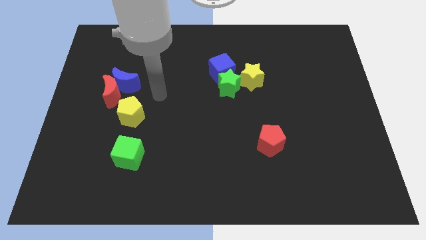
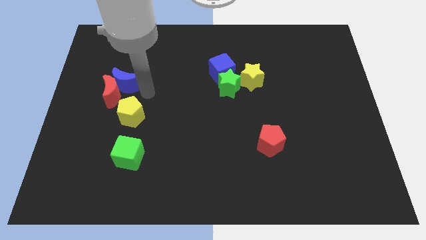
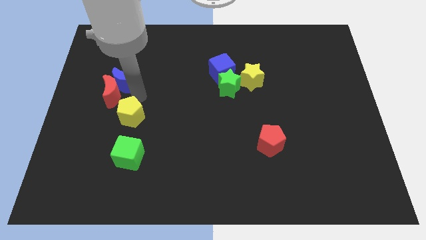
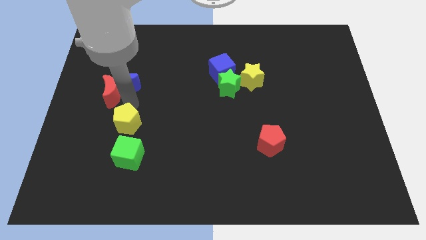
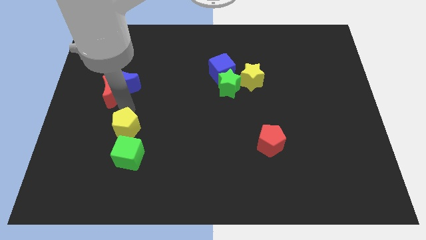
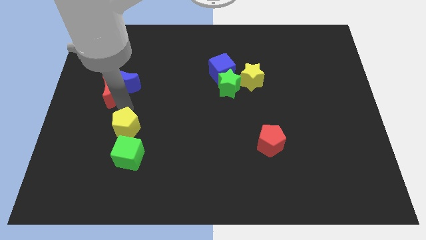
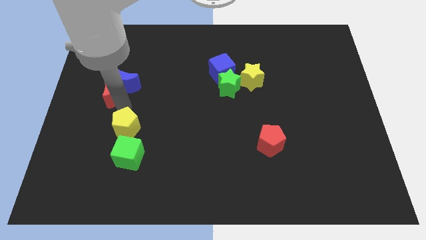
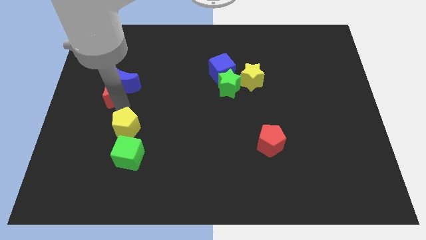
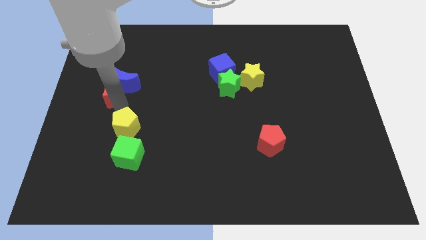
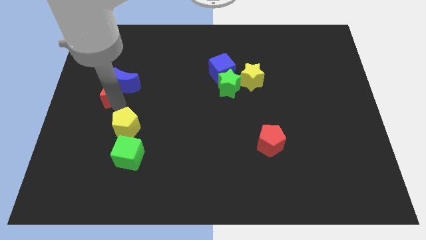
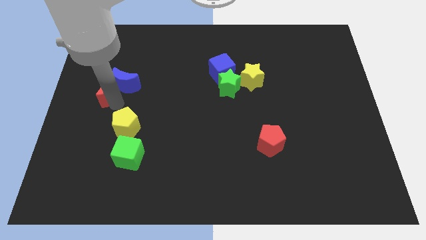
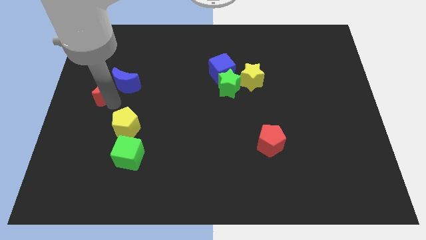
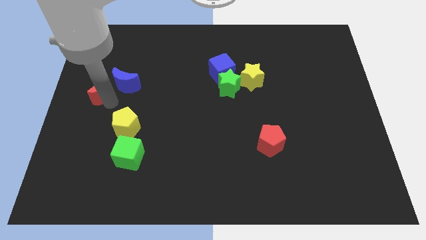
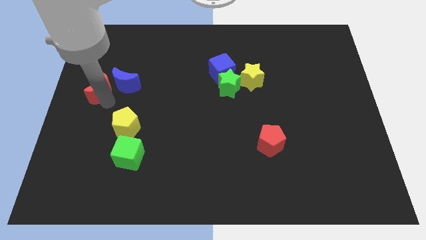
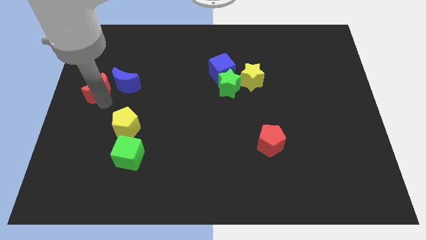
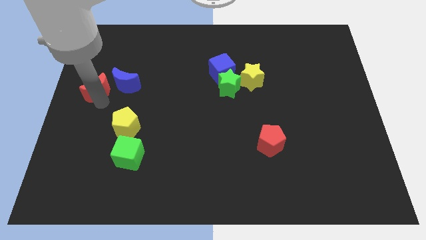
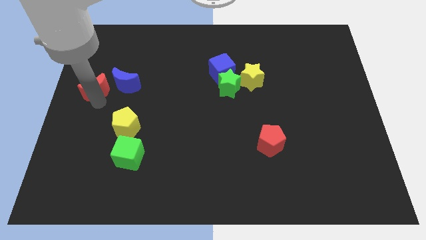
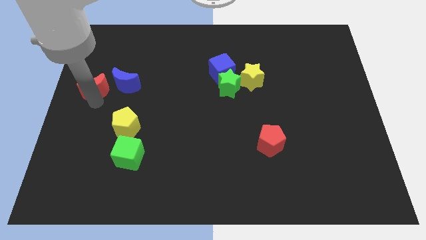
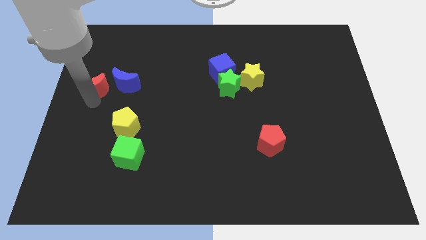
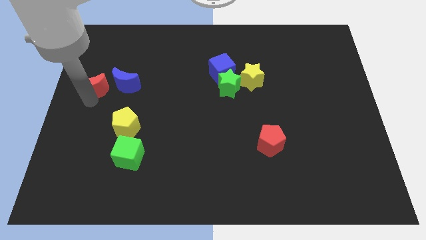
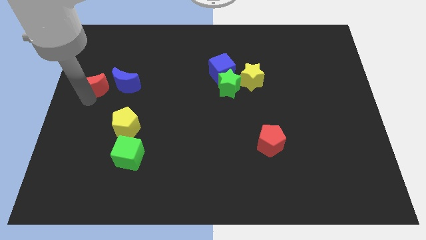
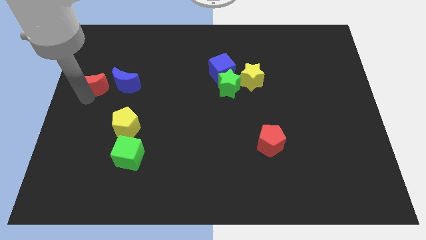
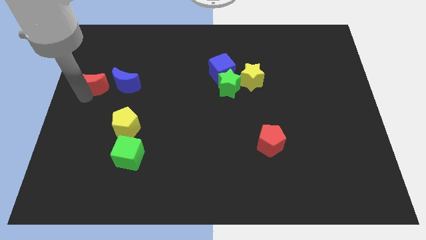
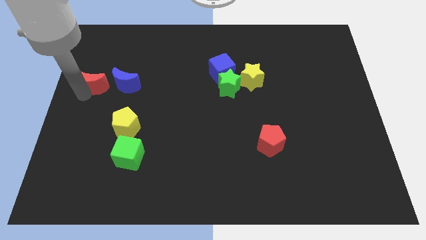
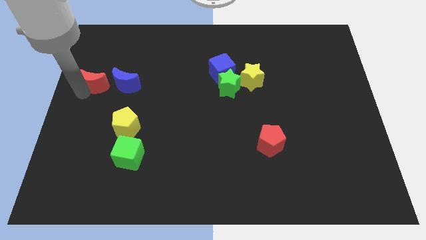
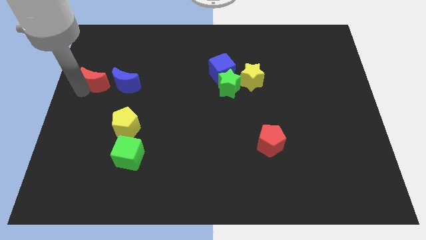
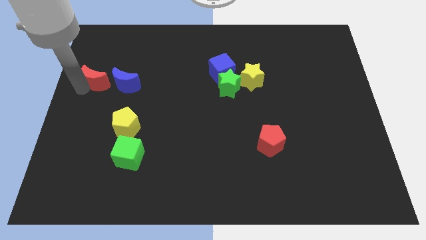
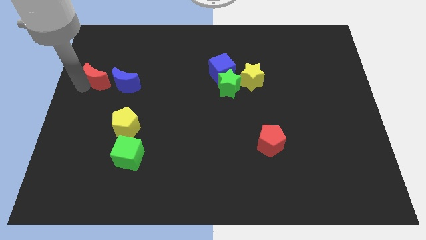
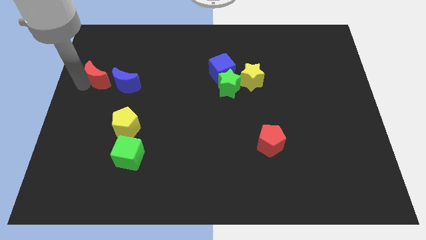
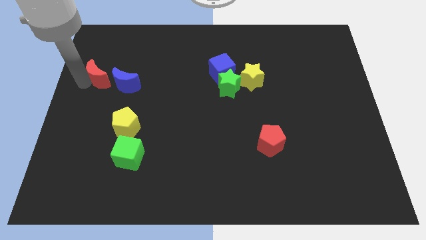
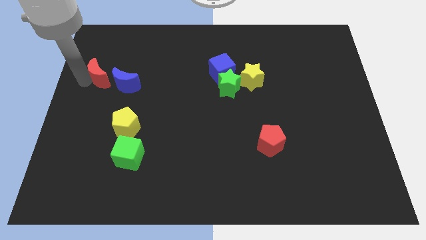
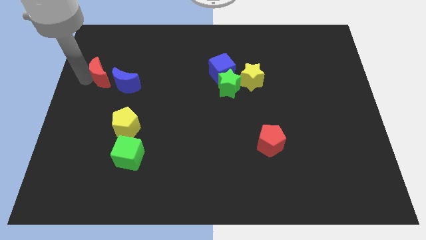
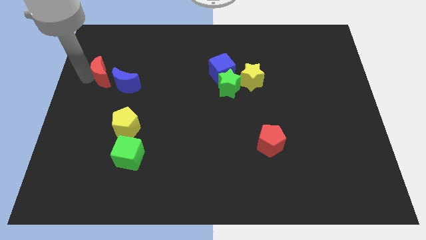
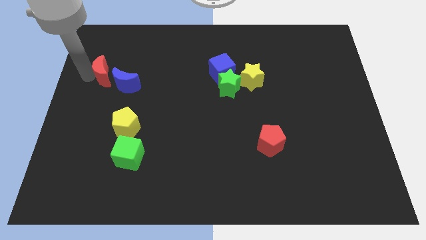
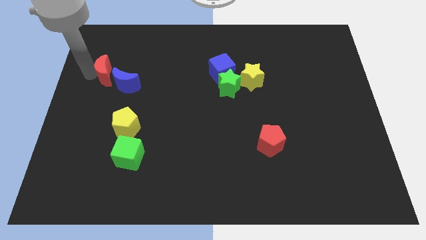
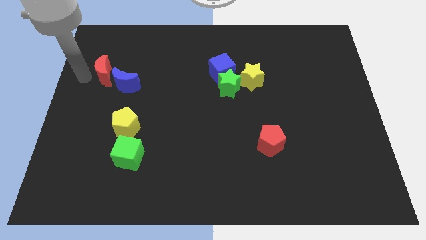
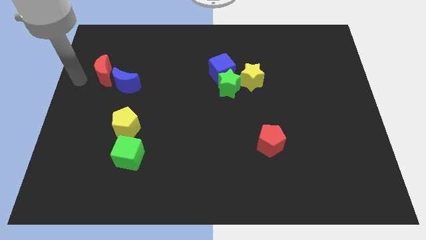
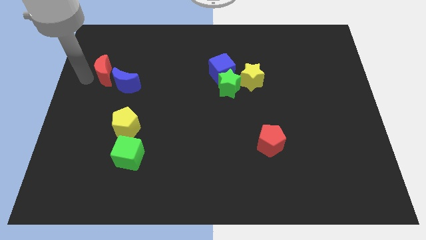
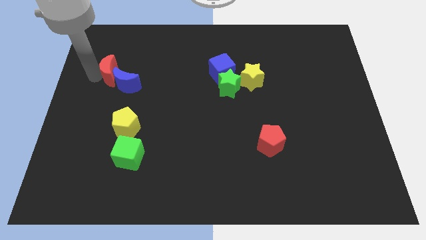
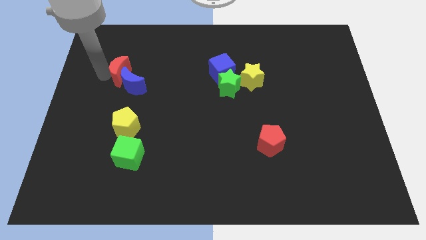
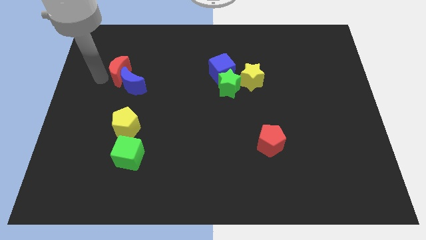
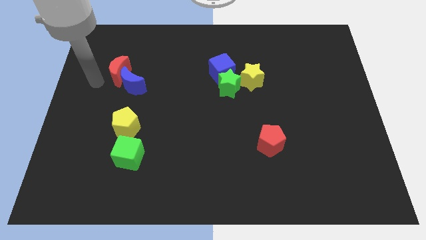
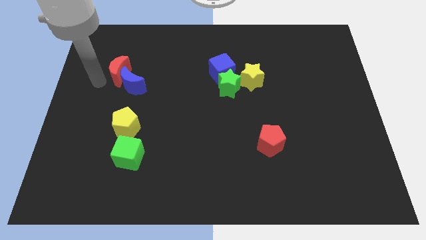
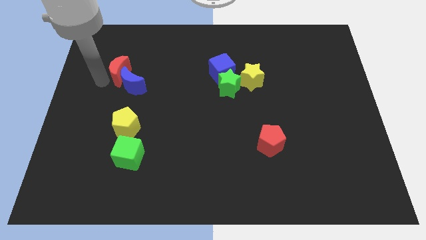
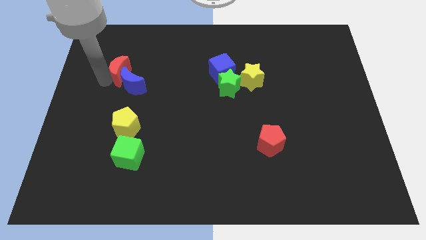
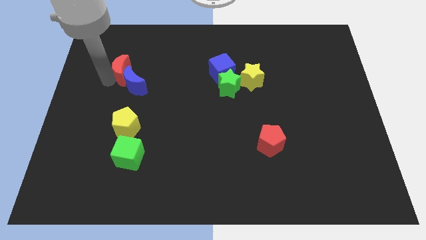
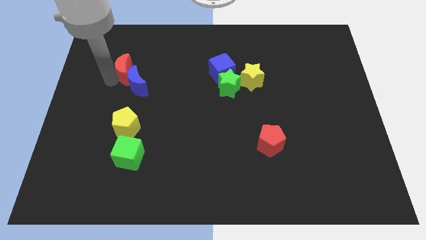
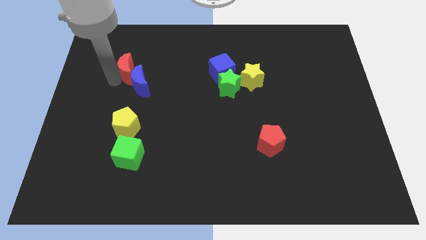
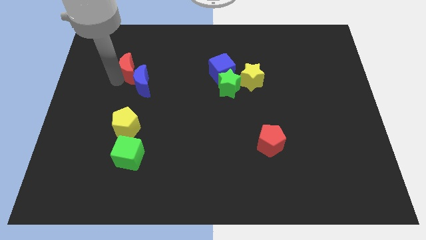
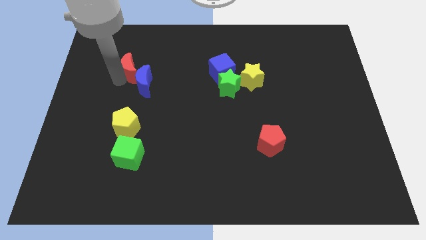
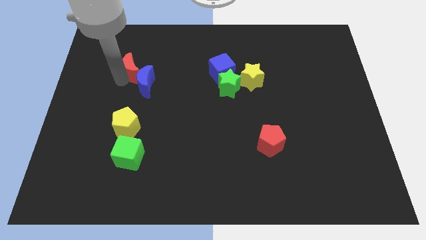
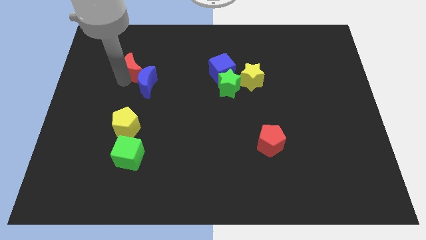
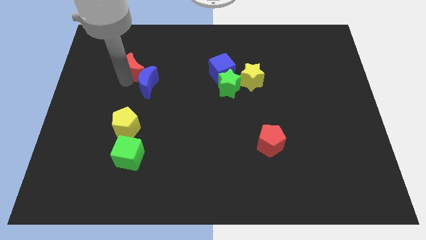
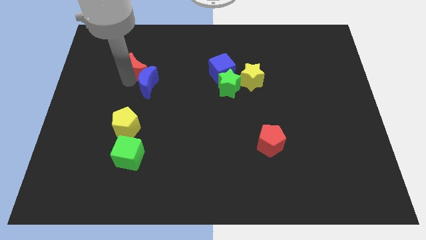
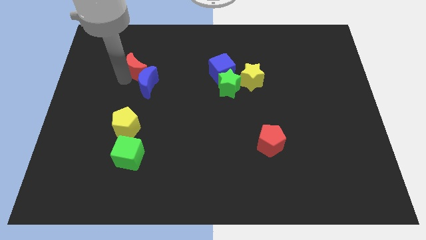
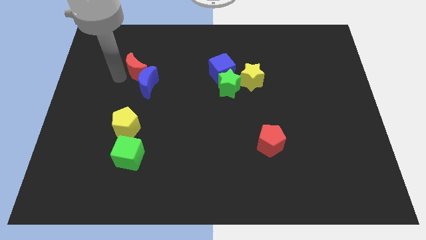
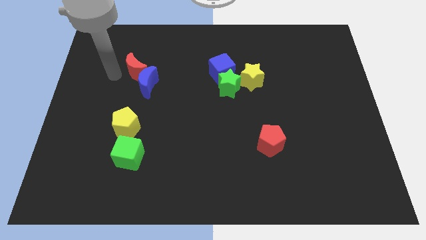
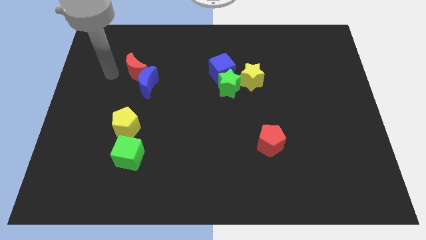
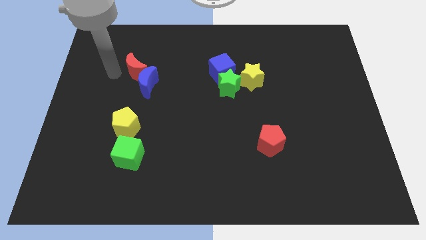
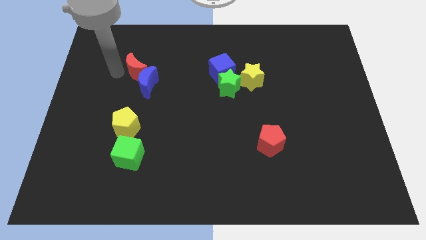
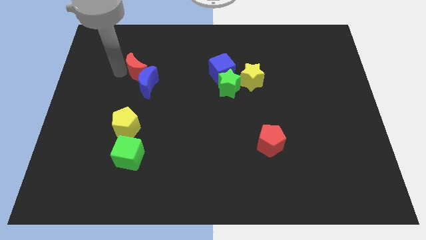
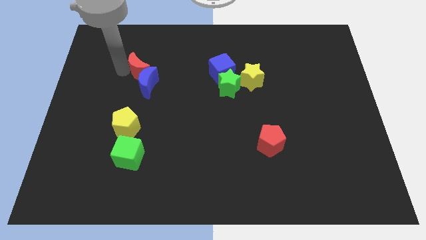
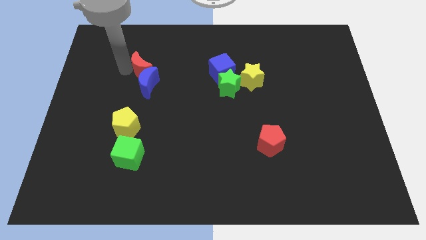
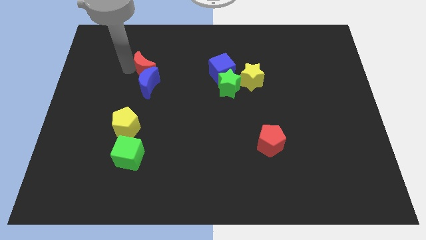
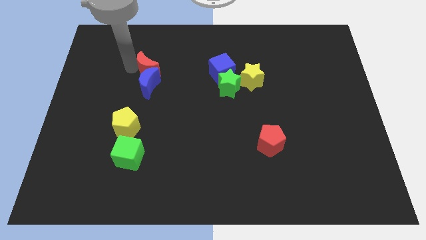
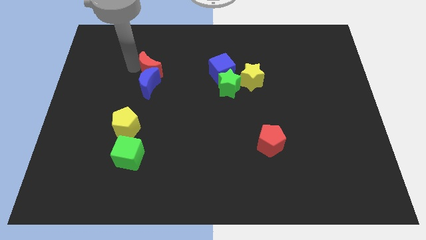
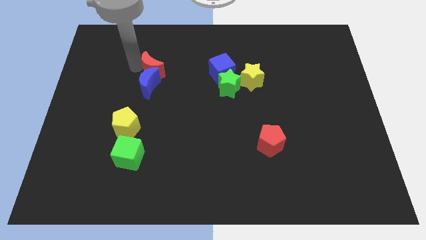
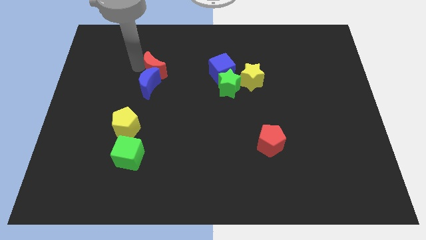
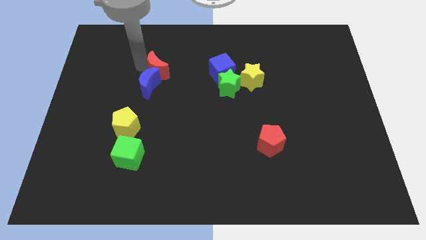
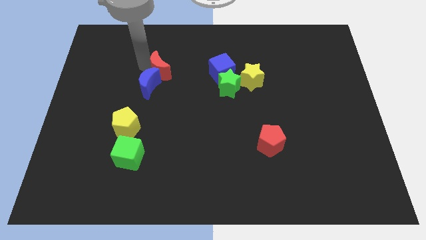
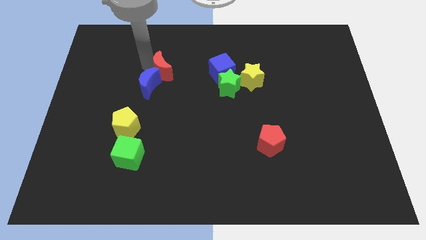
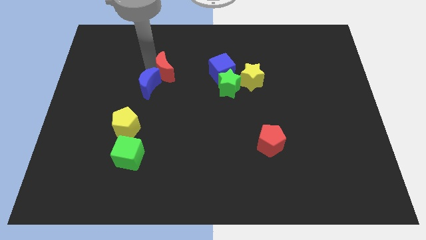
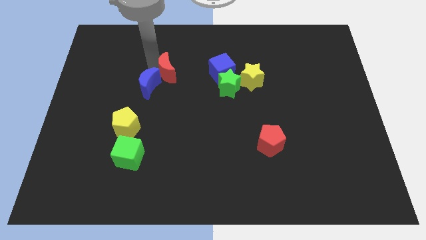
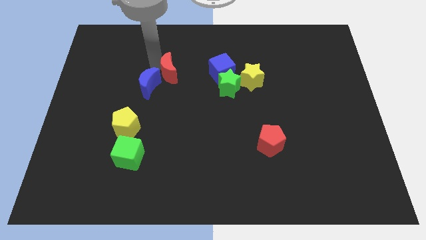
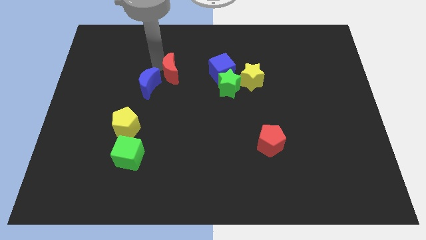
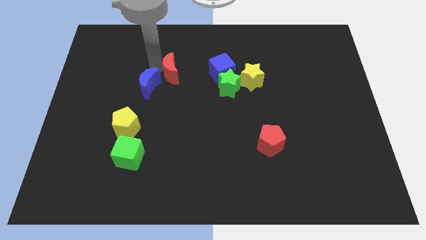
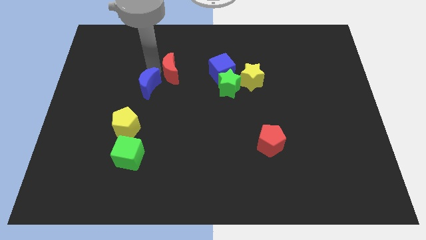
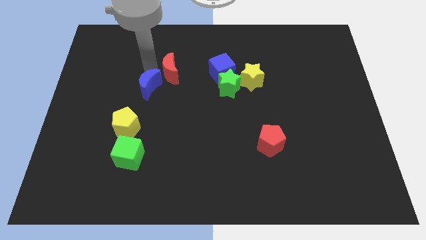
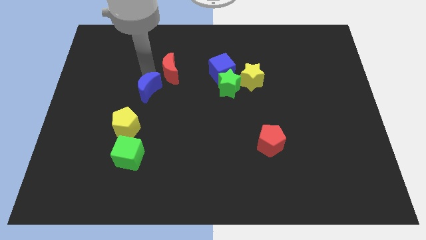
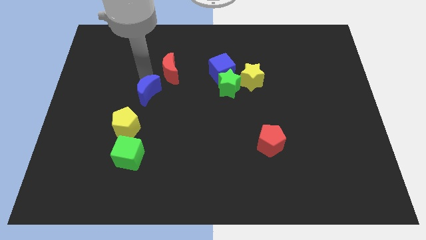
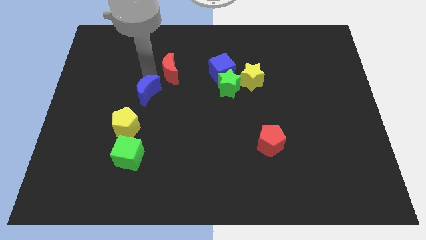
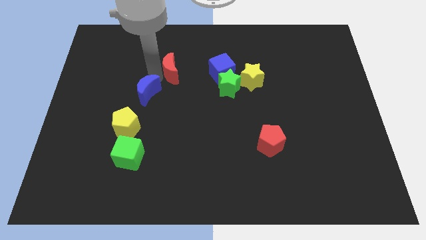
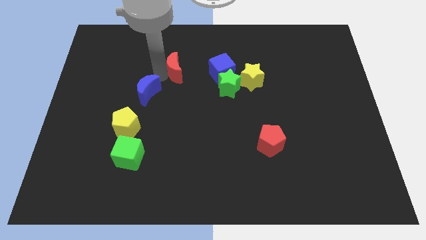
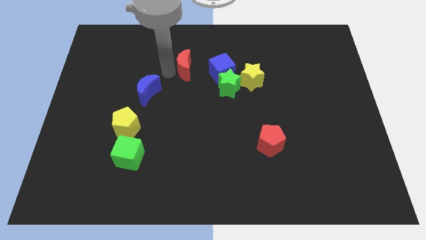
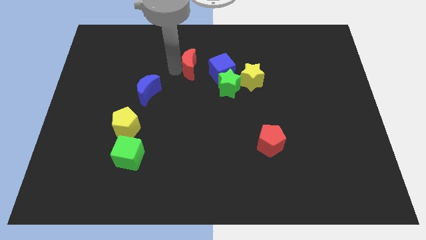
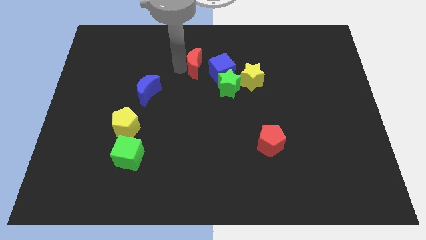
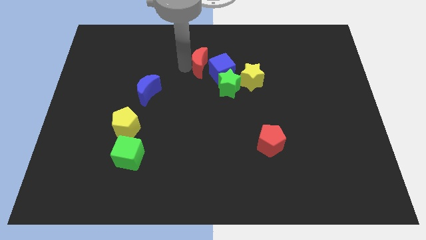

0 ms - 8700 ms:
push the red moon next to the blue cube
